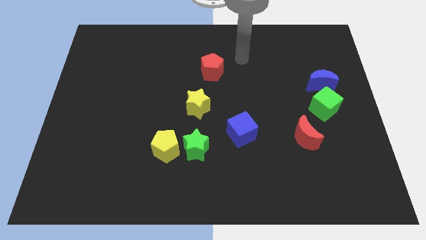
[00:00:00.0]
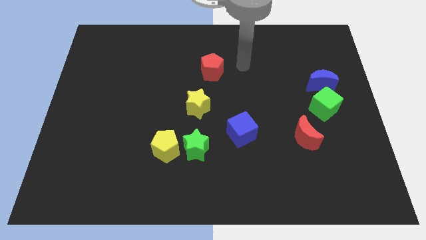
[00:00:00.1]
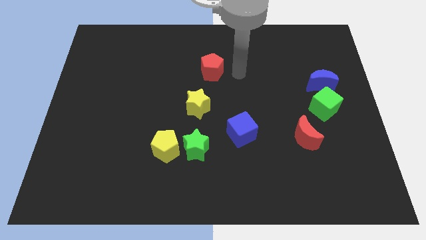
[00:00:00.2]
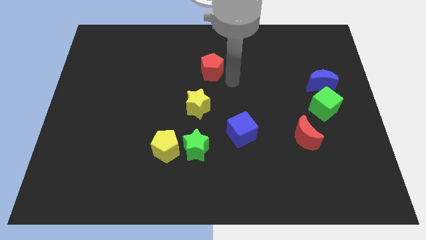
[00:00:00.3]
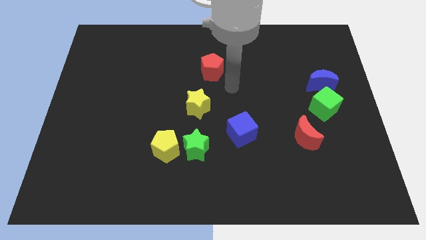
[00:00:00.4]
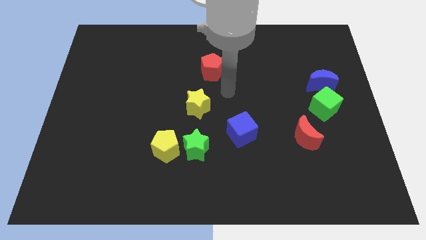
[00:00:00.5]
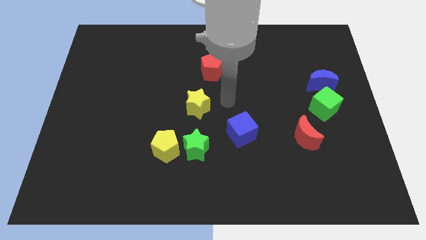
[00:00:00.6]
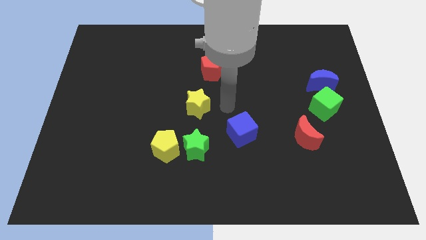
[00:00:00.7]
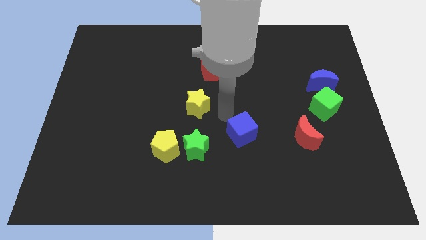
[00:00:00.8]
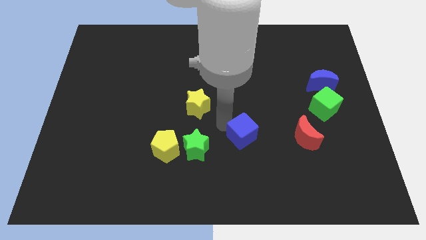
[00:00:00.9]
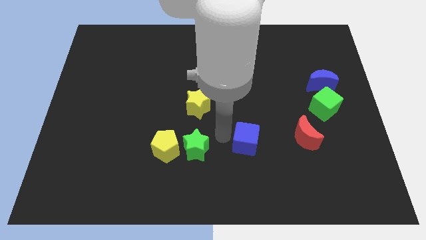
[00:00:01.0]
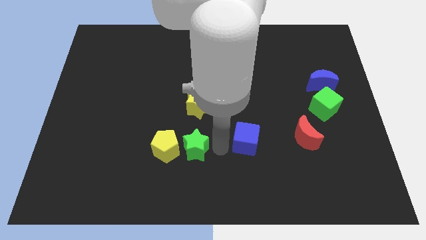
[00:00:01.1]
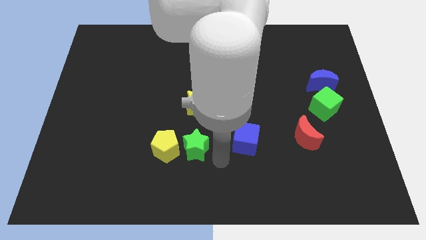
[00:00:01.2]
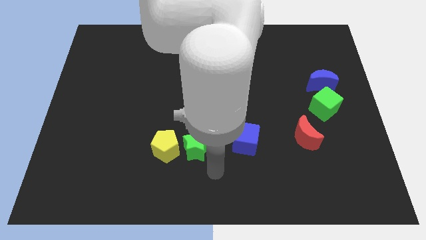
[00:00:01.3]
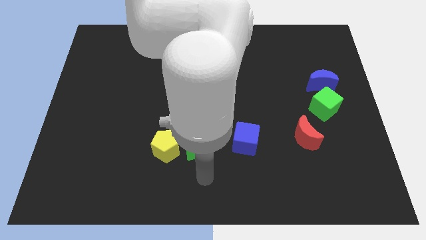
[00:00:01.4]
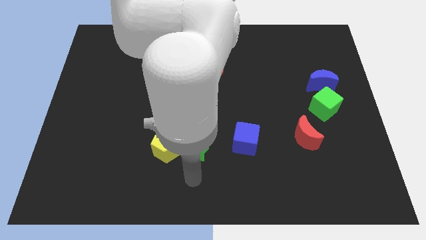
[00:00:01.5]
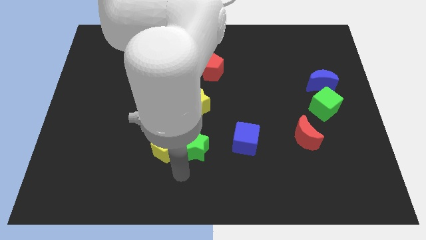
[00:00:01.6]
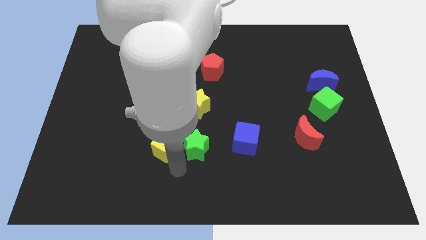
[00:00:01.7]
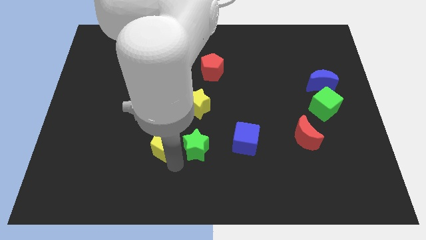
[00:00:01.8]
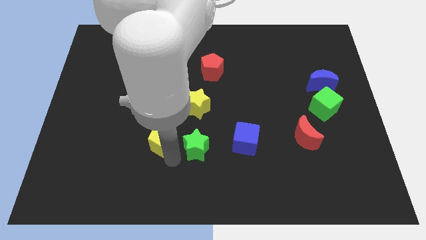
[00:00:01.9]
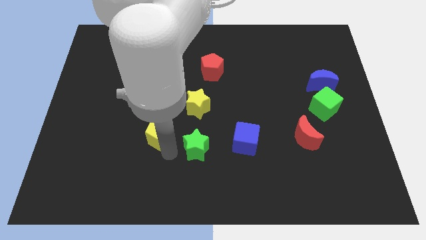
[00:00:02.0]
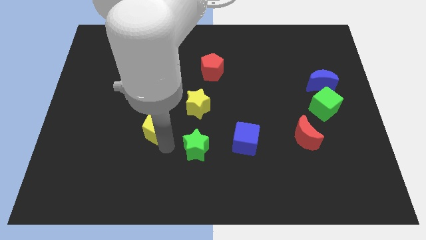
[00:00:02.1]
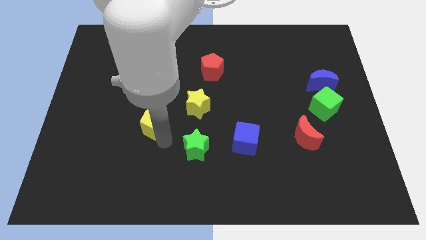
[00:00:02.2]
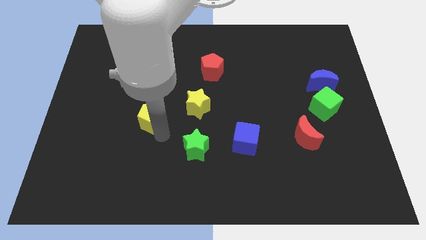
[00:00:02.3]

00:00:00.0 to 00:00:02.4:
push the yellow pentagon up and then to the left a bit

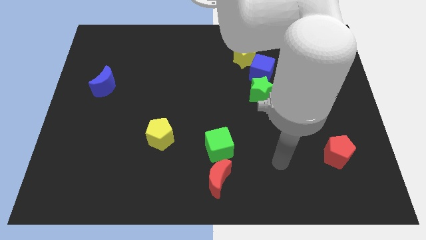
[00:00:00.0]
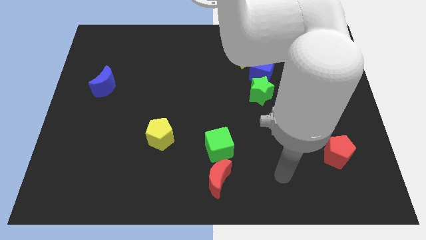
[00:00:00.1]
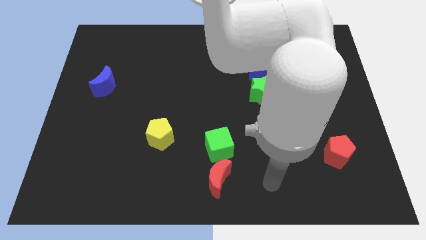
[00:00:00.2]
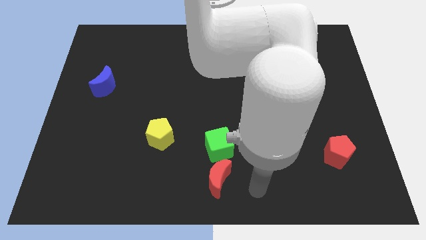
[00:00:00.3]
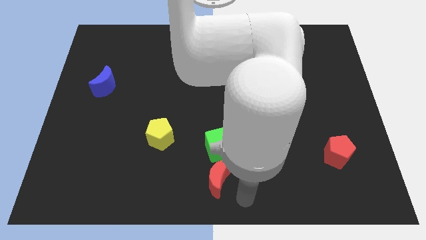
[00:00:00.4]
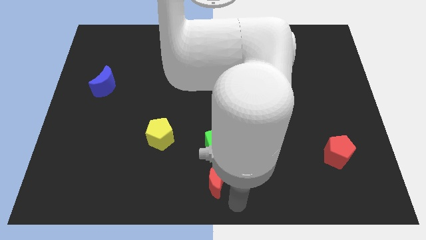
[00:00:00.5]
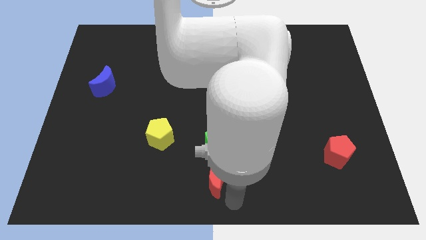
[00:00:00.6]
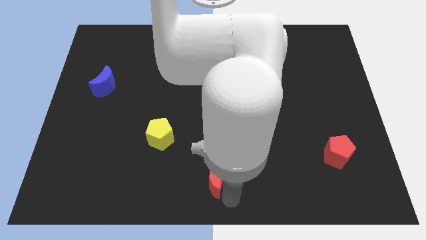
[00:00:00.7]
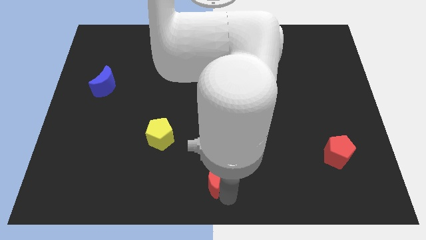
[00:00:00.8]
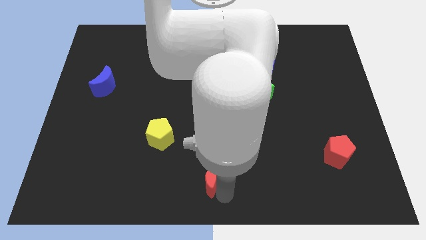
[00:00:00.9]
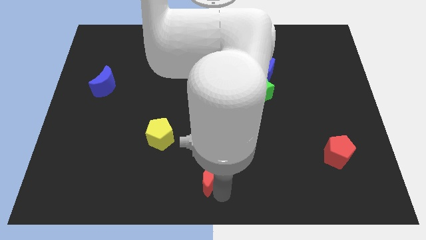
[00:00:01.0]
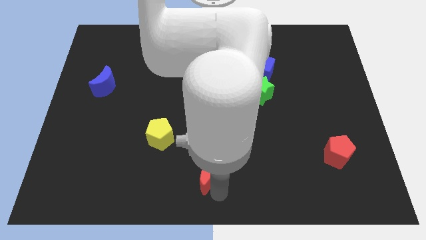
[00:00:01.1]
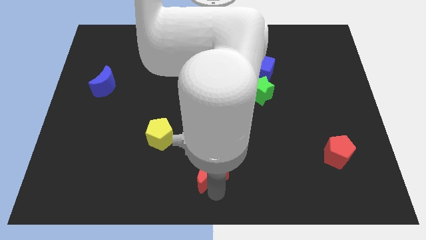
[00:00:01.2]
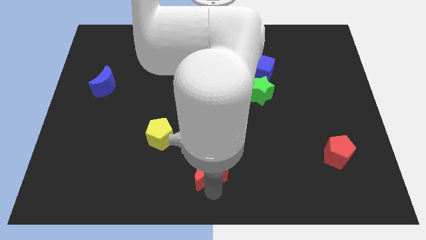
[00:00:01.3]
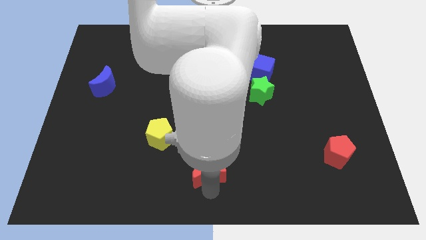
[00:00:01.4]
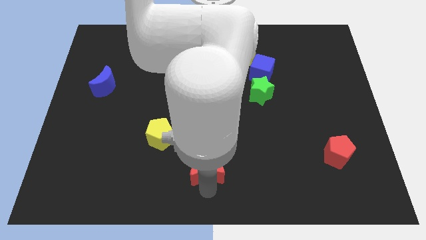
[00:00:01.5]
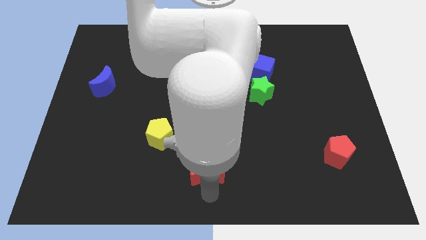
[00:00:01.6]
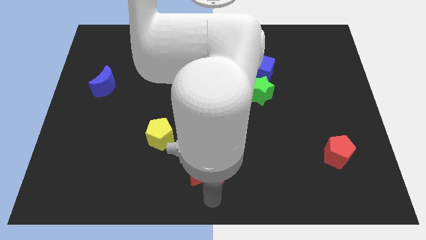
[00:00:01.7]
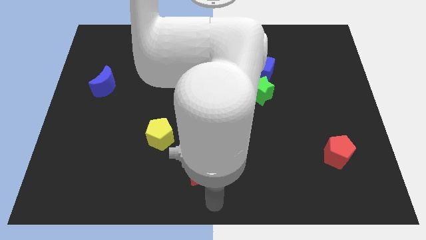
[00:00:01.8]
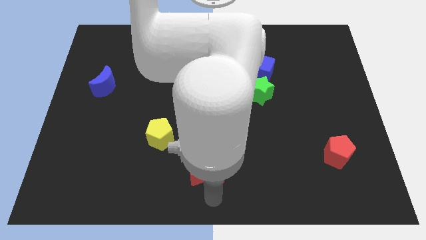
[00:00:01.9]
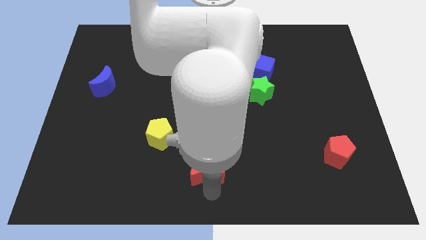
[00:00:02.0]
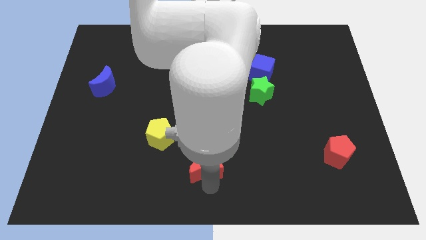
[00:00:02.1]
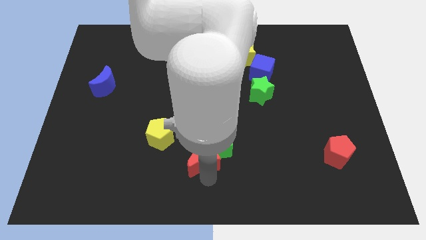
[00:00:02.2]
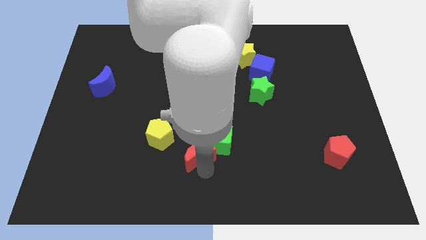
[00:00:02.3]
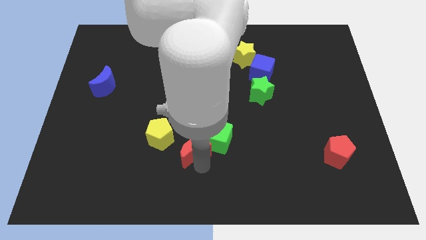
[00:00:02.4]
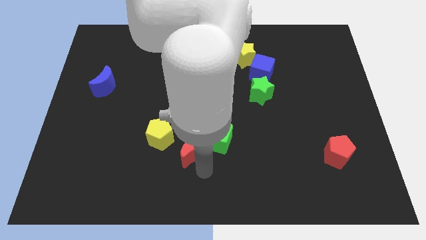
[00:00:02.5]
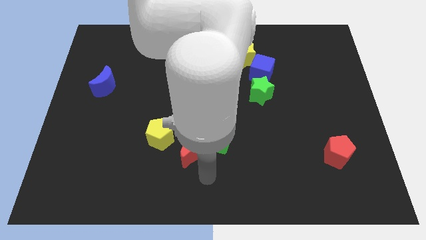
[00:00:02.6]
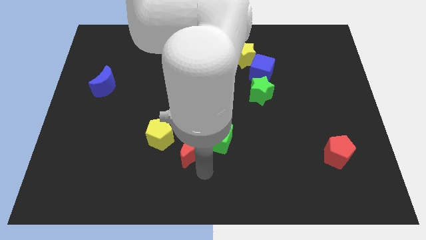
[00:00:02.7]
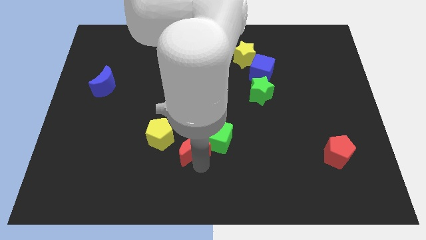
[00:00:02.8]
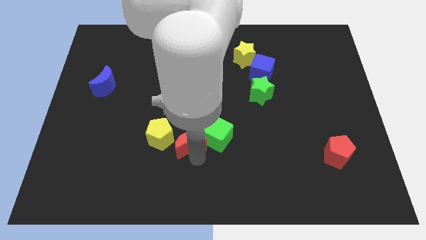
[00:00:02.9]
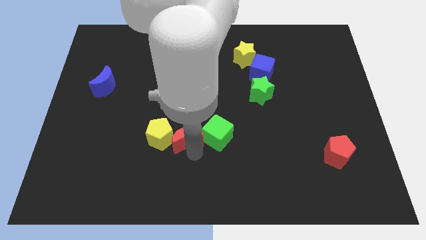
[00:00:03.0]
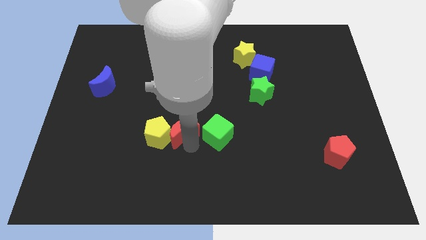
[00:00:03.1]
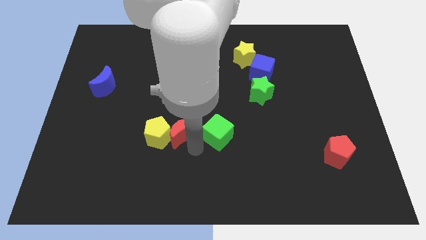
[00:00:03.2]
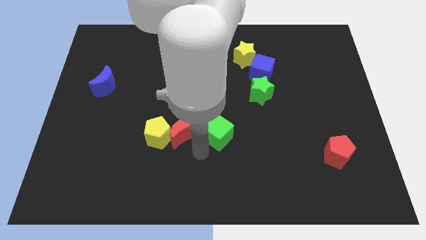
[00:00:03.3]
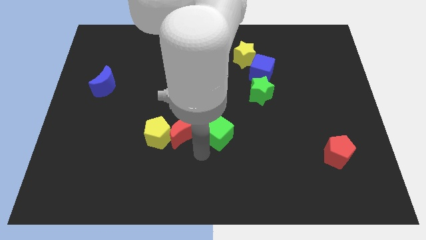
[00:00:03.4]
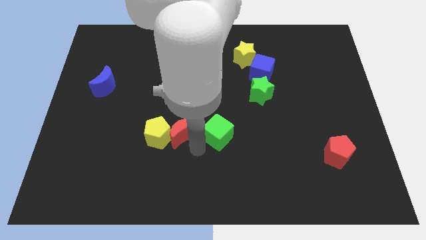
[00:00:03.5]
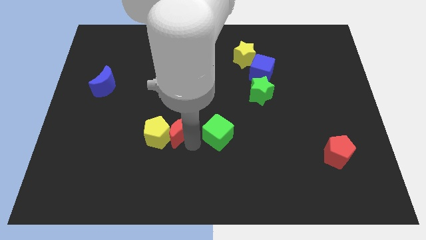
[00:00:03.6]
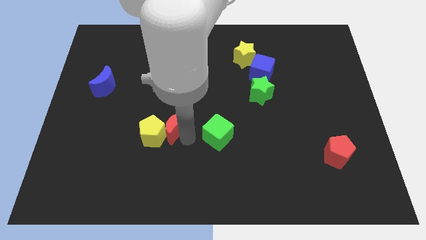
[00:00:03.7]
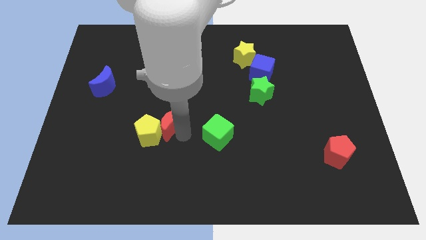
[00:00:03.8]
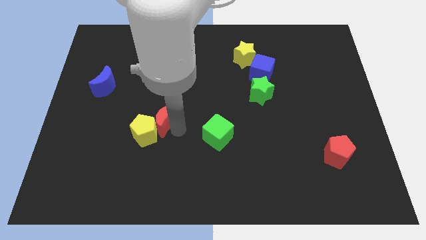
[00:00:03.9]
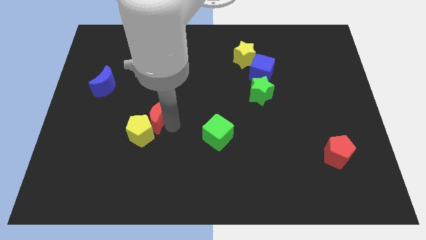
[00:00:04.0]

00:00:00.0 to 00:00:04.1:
slide the red moon up and to the left diagonally

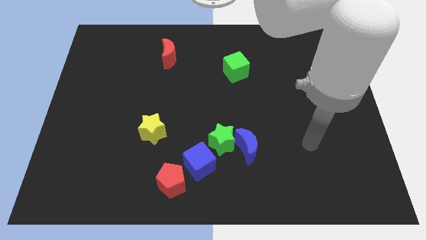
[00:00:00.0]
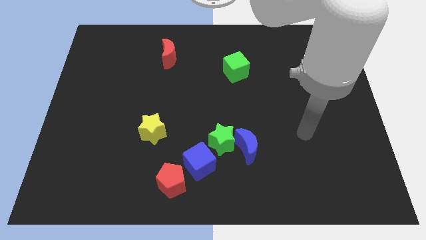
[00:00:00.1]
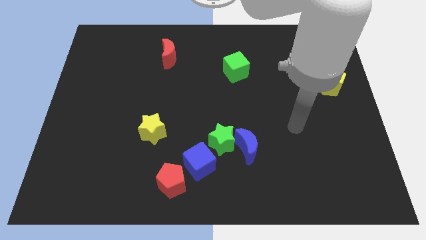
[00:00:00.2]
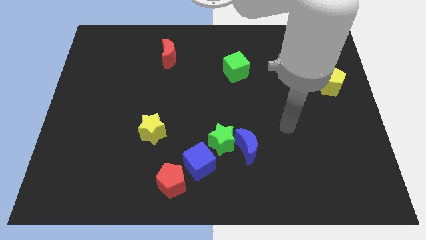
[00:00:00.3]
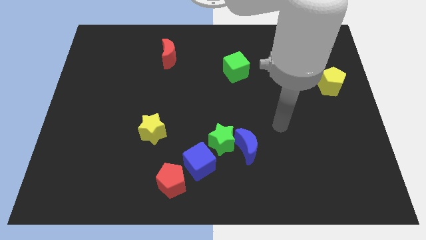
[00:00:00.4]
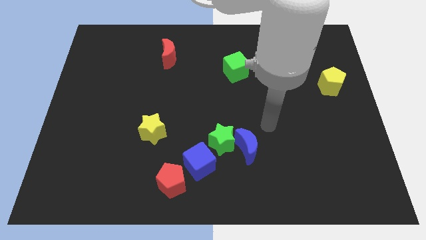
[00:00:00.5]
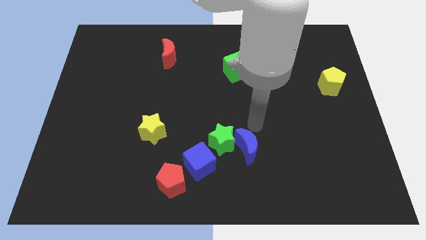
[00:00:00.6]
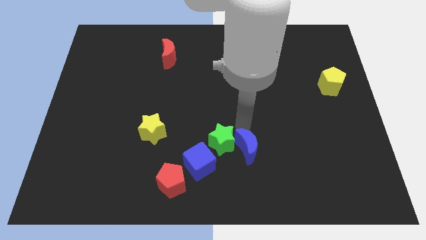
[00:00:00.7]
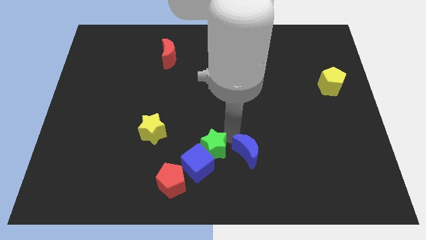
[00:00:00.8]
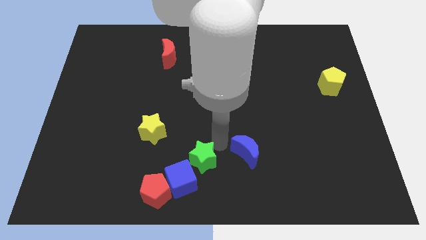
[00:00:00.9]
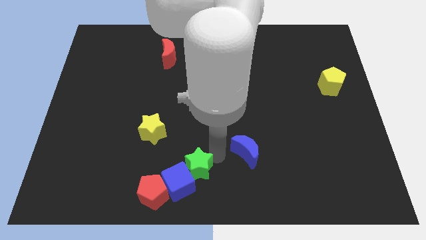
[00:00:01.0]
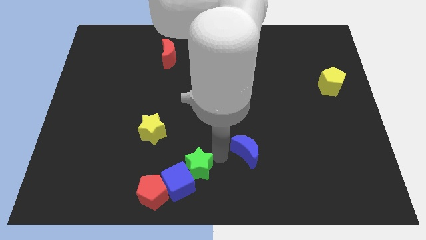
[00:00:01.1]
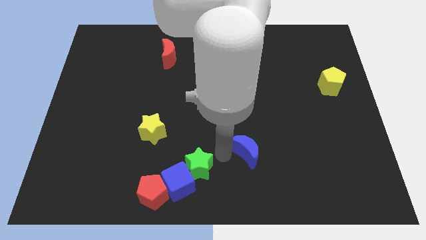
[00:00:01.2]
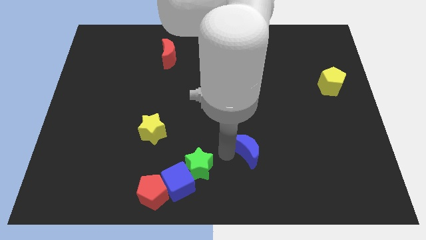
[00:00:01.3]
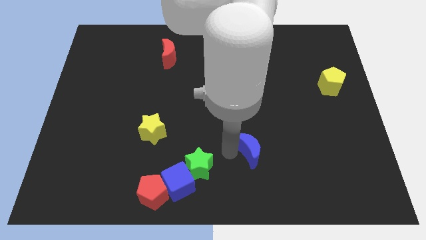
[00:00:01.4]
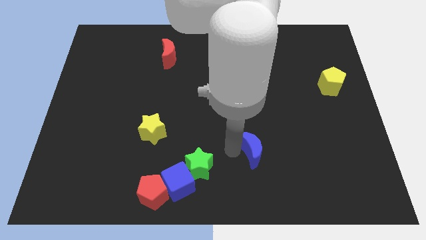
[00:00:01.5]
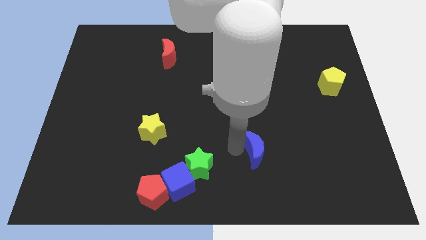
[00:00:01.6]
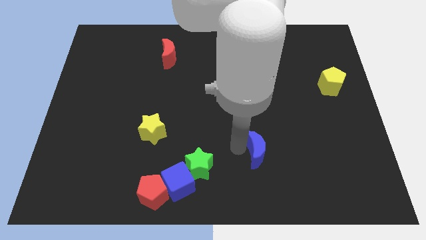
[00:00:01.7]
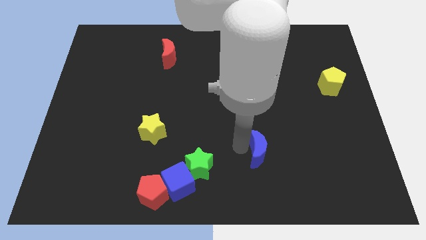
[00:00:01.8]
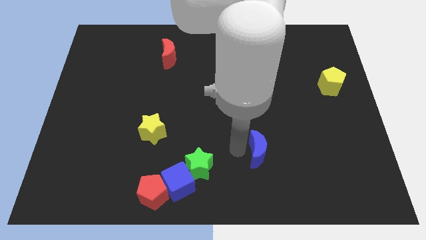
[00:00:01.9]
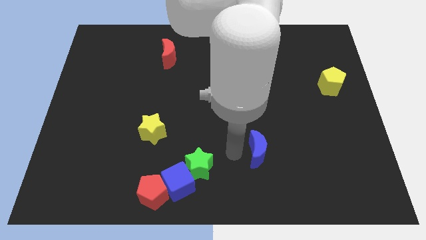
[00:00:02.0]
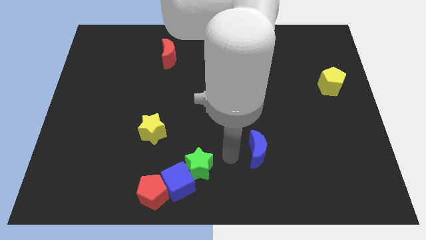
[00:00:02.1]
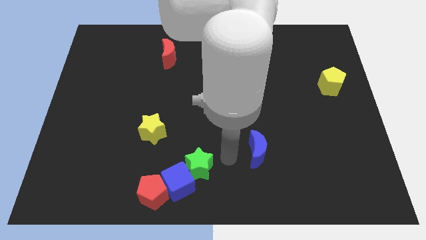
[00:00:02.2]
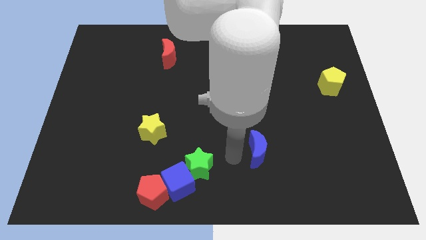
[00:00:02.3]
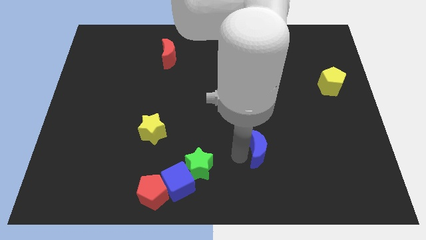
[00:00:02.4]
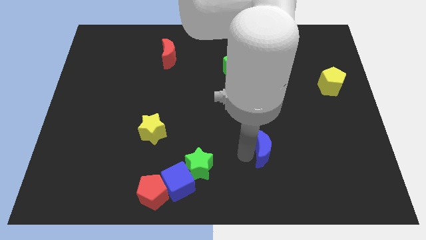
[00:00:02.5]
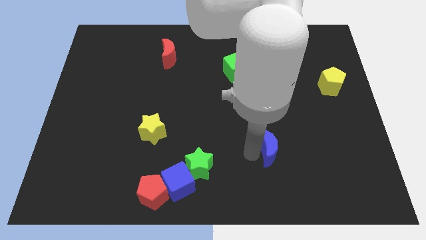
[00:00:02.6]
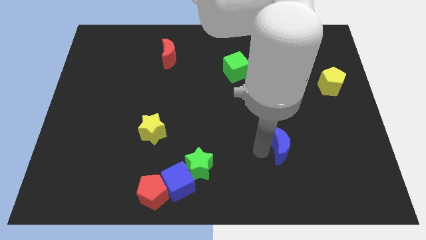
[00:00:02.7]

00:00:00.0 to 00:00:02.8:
push the blue moon to the right a little bit
